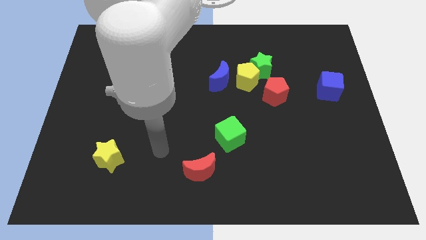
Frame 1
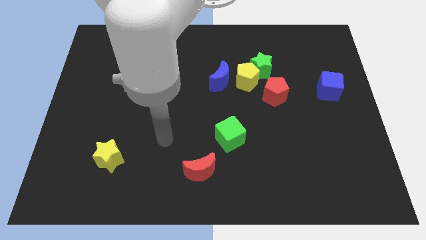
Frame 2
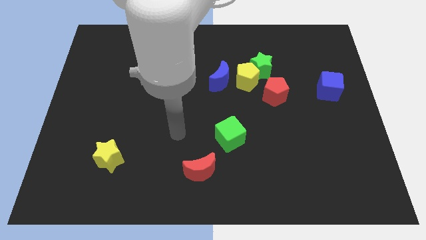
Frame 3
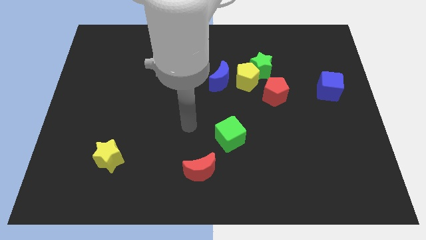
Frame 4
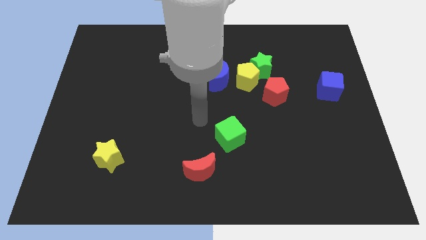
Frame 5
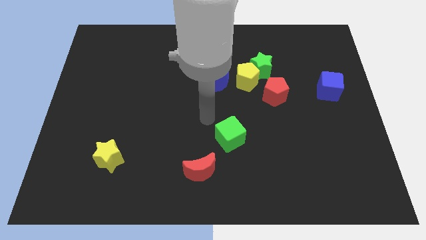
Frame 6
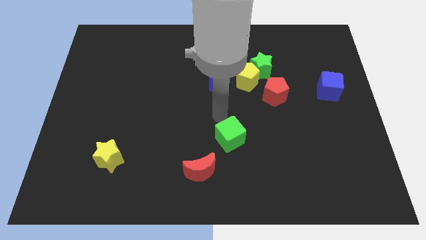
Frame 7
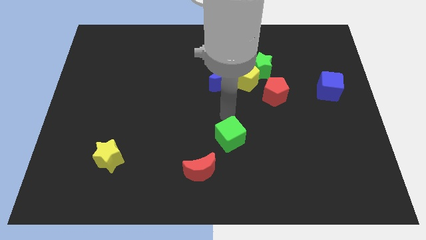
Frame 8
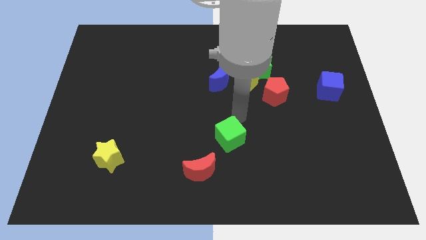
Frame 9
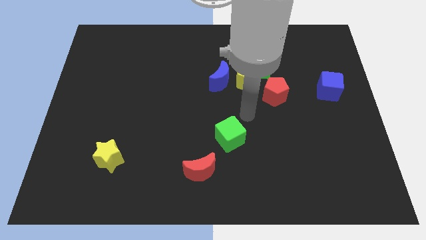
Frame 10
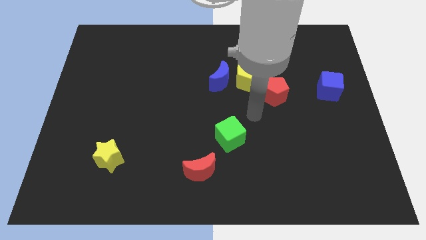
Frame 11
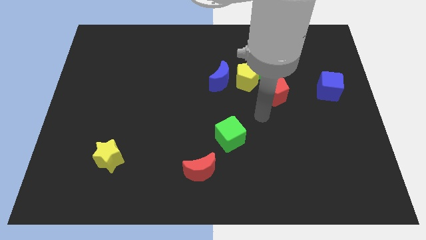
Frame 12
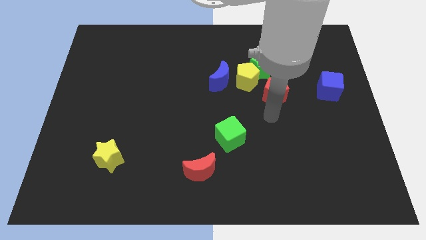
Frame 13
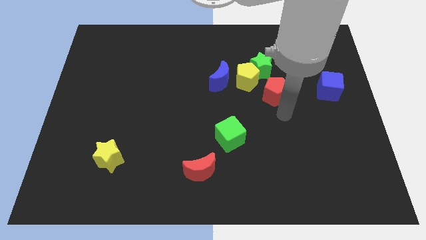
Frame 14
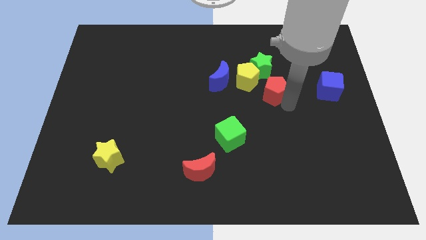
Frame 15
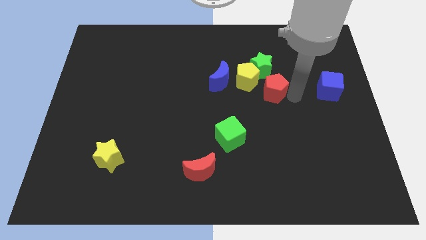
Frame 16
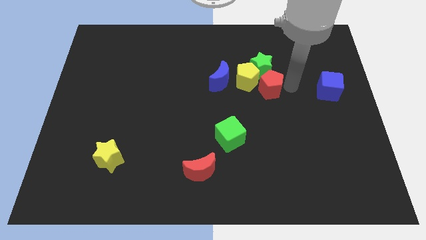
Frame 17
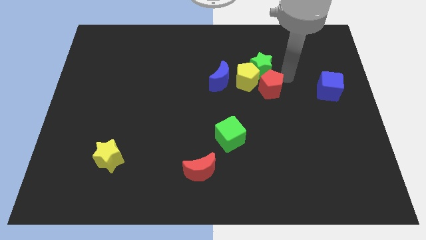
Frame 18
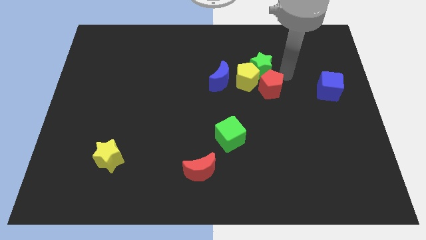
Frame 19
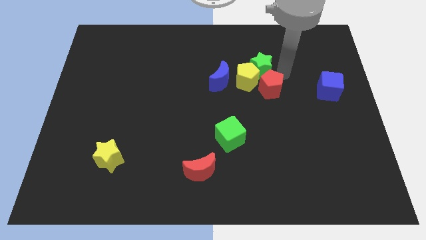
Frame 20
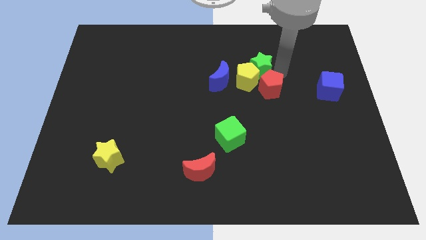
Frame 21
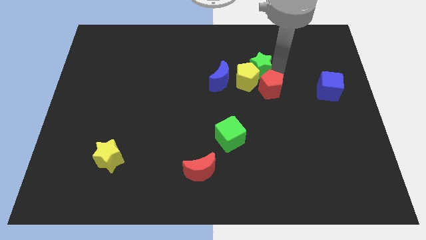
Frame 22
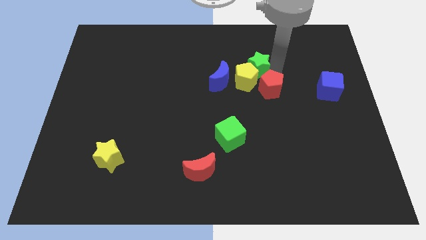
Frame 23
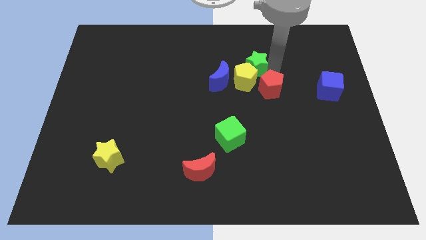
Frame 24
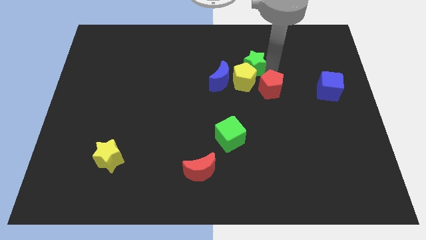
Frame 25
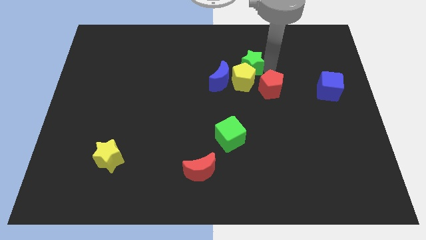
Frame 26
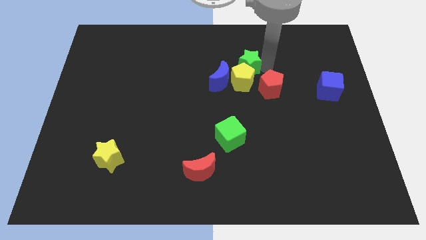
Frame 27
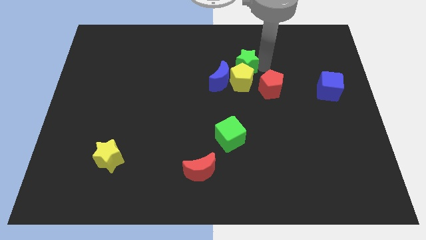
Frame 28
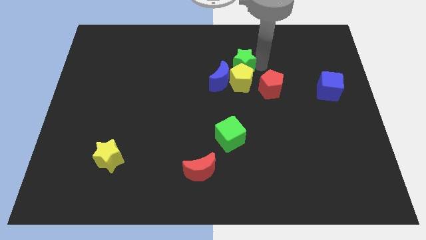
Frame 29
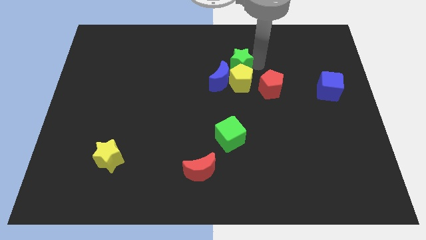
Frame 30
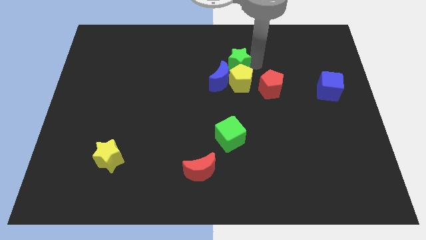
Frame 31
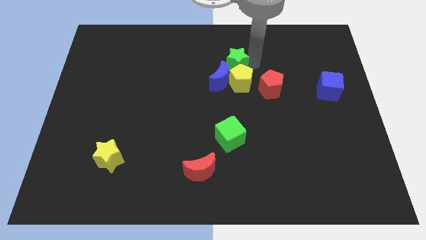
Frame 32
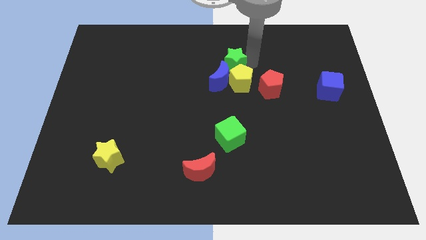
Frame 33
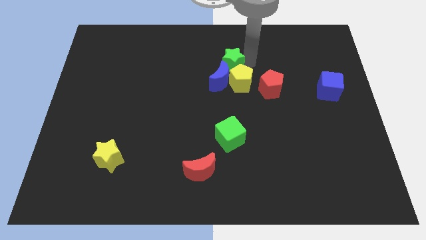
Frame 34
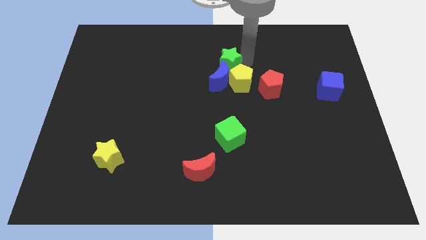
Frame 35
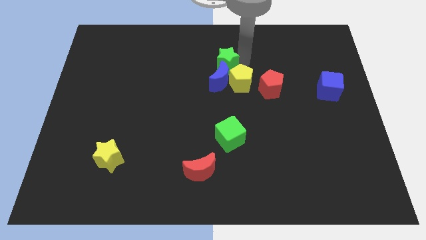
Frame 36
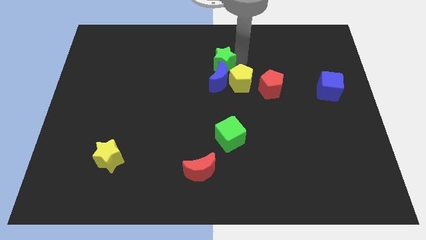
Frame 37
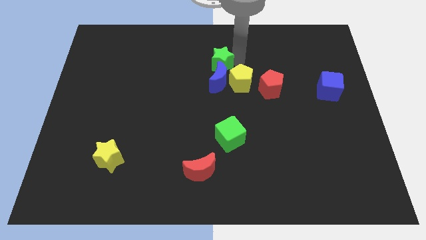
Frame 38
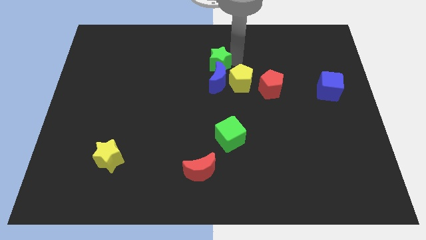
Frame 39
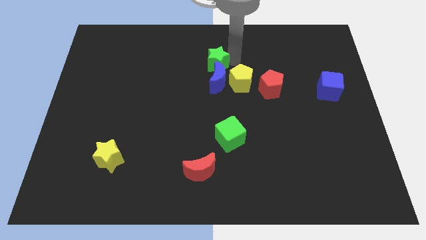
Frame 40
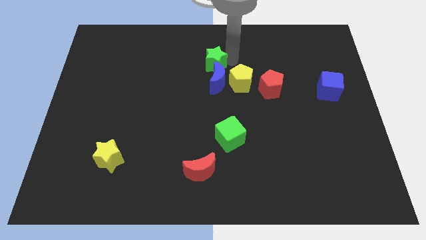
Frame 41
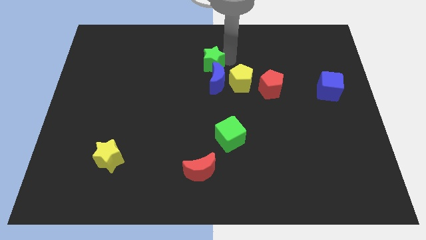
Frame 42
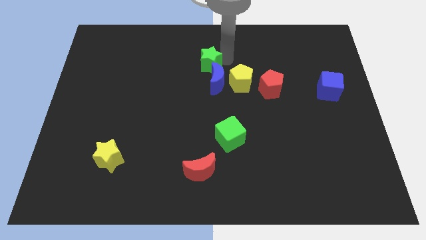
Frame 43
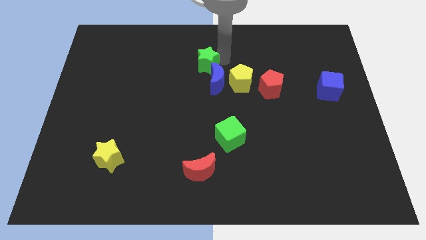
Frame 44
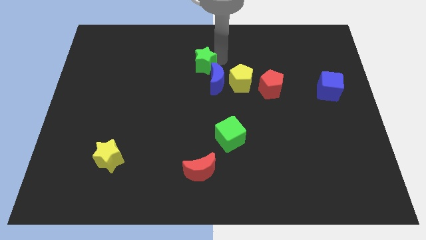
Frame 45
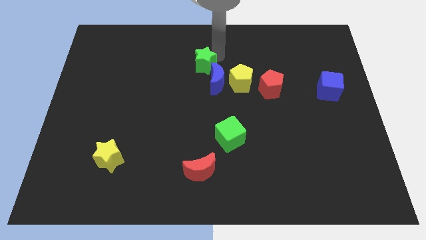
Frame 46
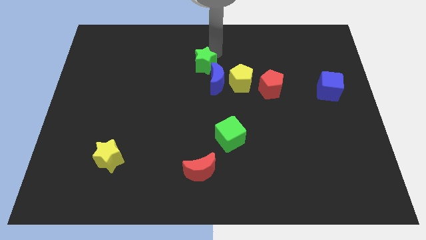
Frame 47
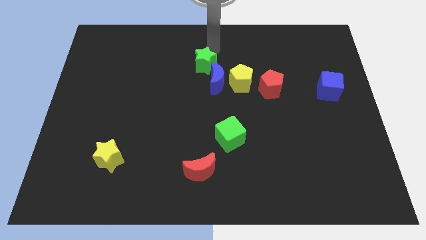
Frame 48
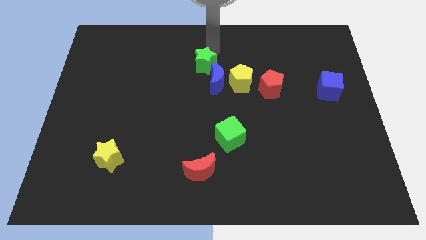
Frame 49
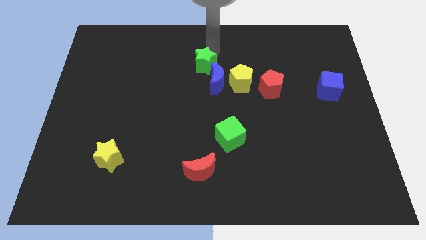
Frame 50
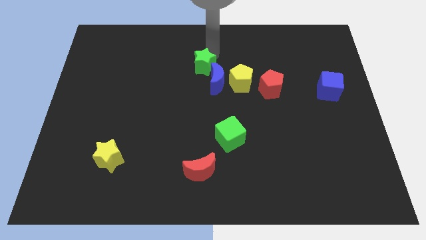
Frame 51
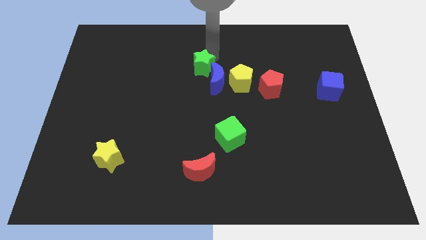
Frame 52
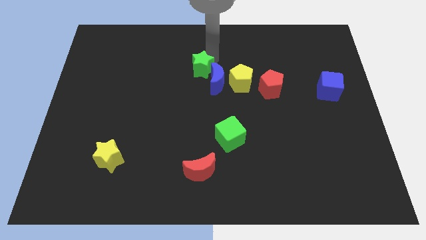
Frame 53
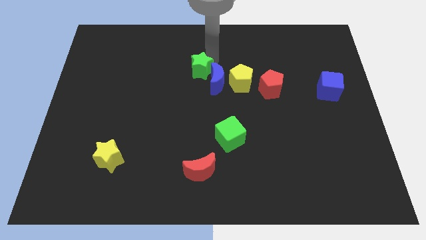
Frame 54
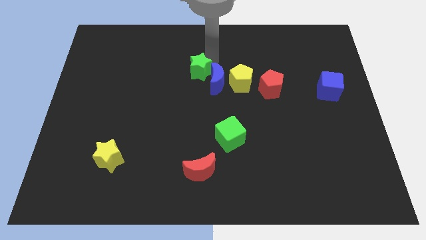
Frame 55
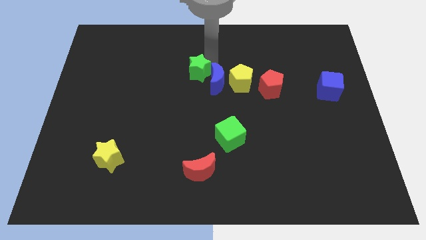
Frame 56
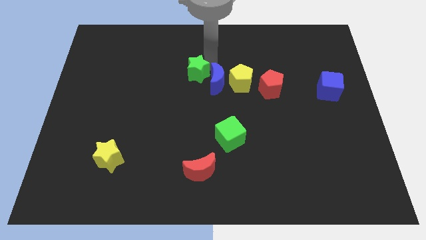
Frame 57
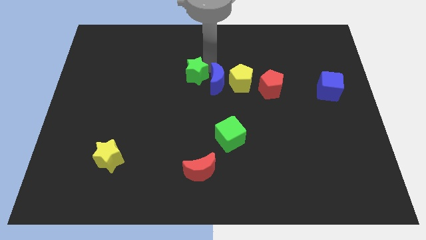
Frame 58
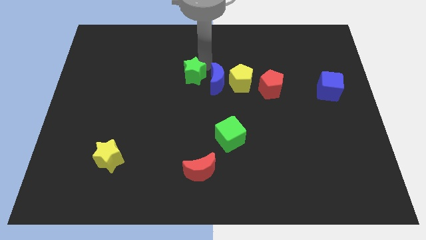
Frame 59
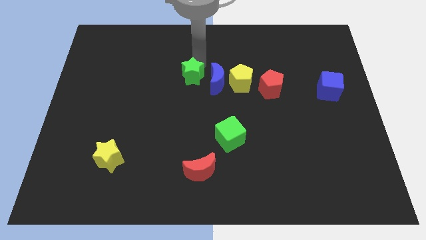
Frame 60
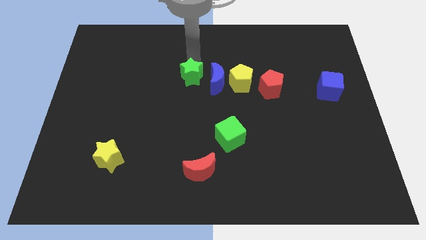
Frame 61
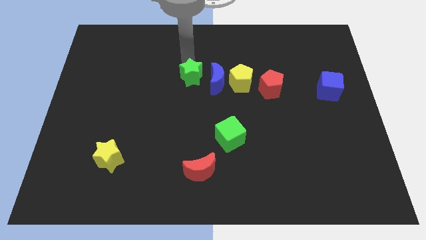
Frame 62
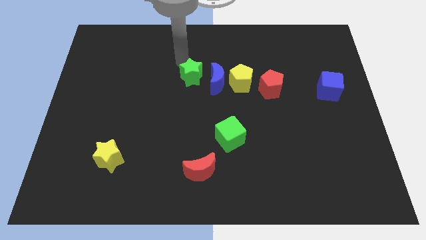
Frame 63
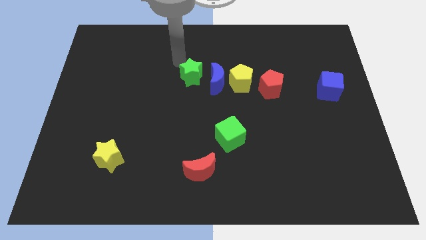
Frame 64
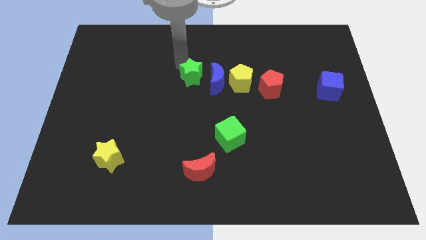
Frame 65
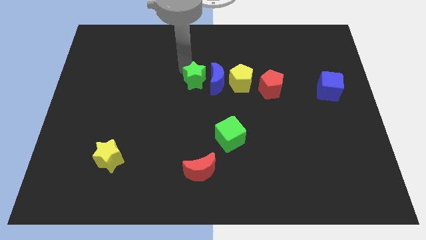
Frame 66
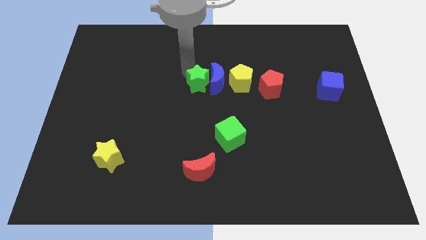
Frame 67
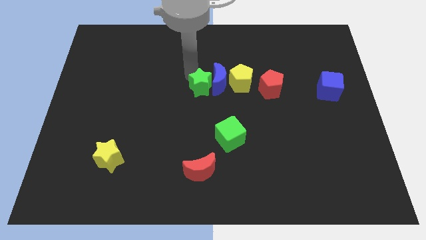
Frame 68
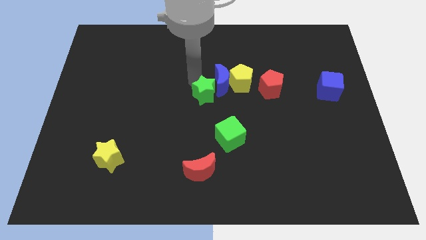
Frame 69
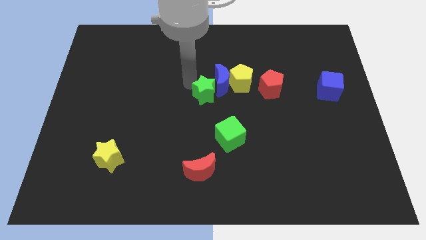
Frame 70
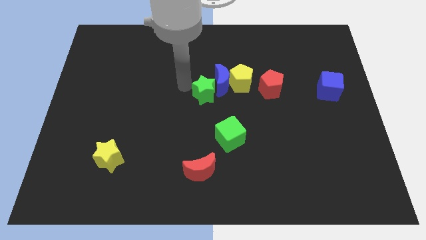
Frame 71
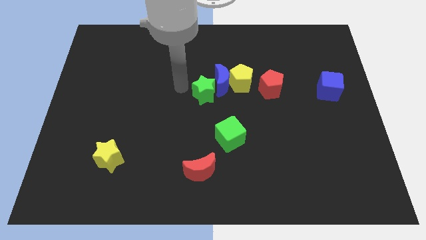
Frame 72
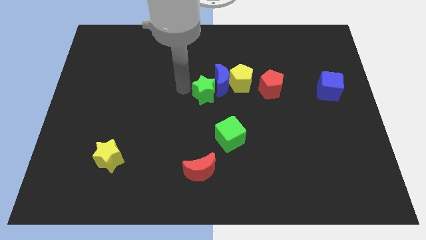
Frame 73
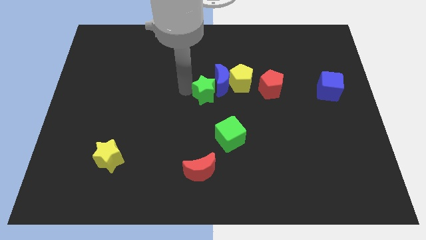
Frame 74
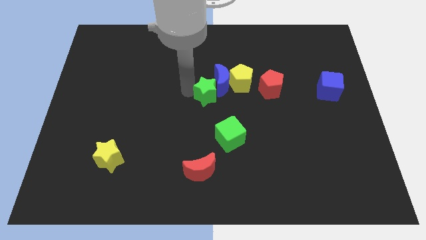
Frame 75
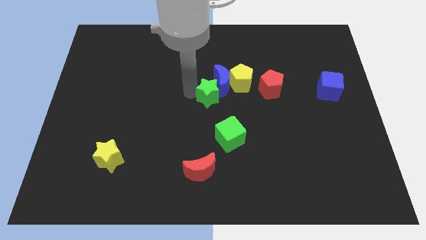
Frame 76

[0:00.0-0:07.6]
push the green star to the top side of the green cube

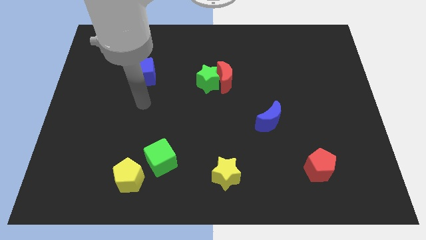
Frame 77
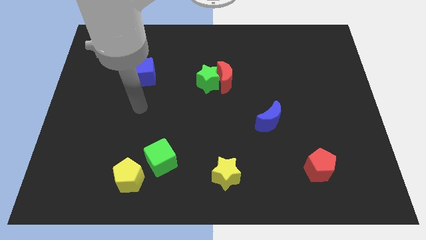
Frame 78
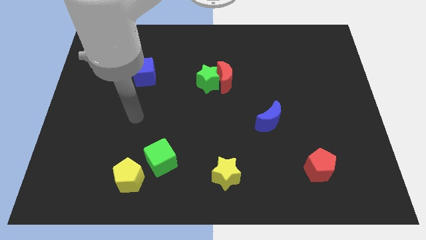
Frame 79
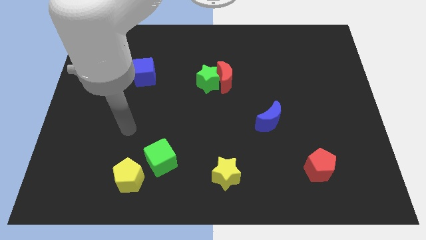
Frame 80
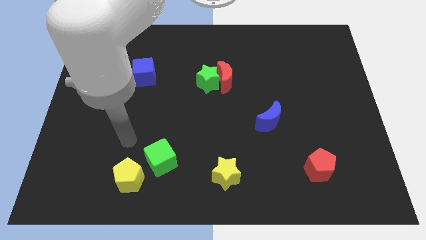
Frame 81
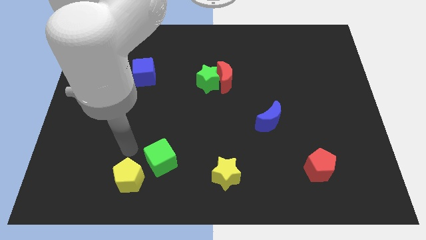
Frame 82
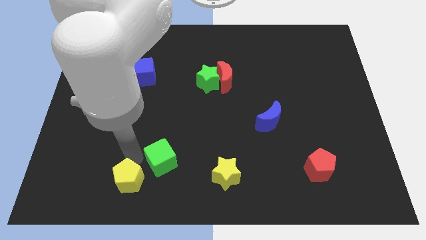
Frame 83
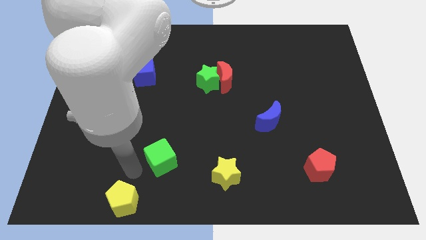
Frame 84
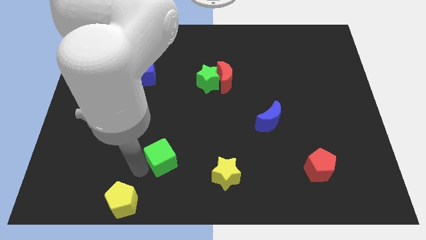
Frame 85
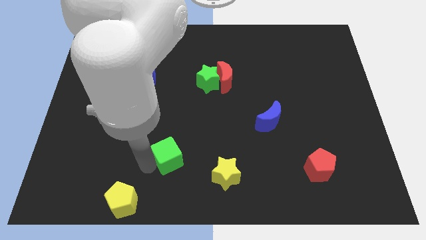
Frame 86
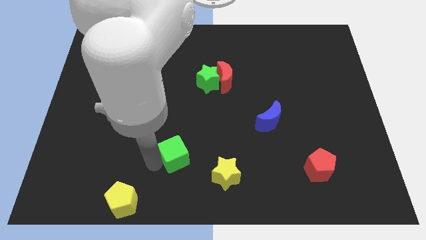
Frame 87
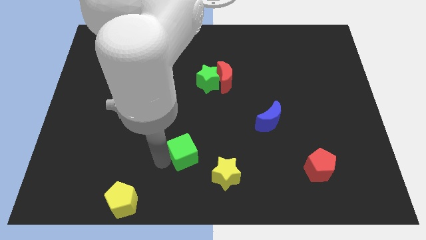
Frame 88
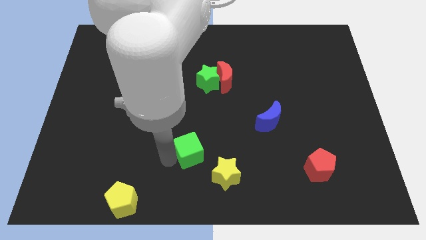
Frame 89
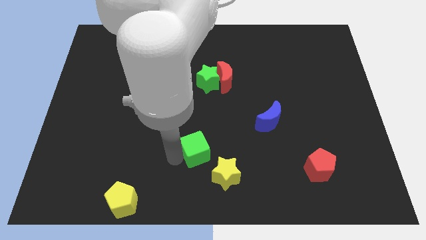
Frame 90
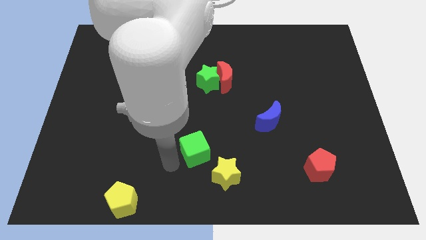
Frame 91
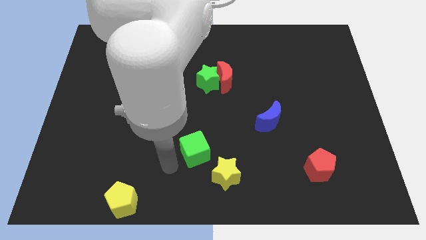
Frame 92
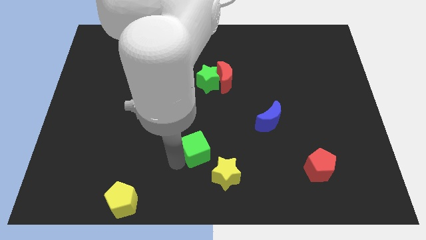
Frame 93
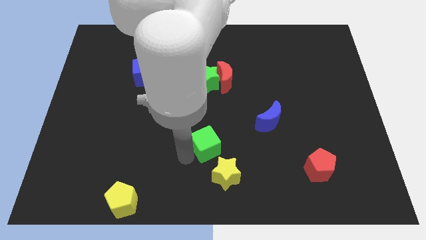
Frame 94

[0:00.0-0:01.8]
slide the green cube to the top side of the yellow star
